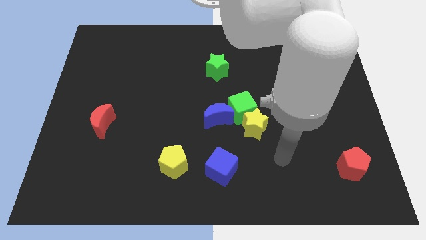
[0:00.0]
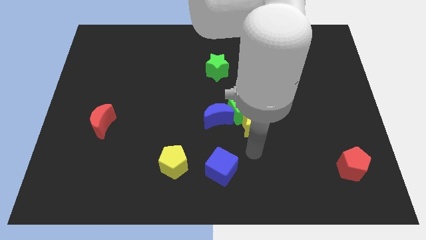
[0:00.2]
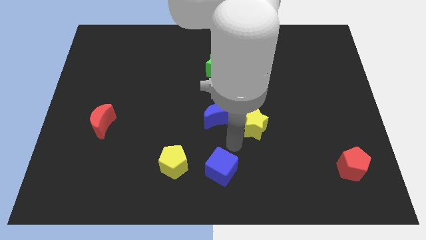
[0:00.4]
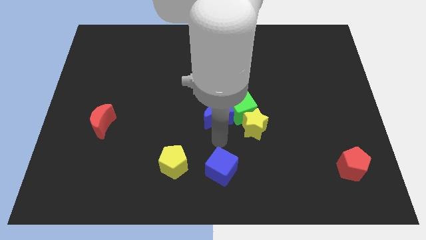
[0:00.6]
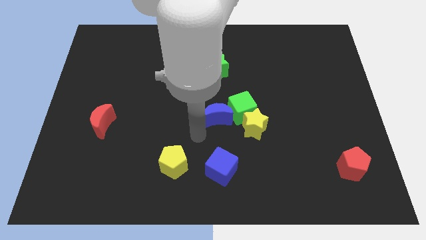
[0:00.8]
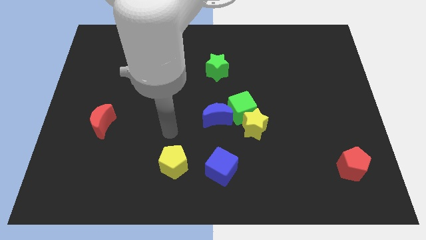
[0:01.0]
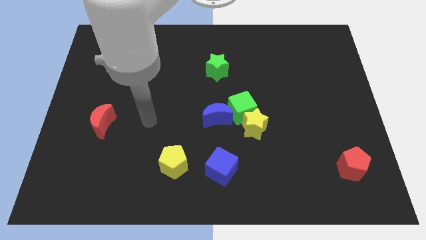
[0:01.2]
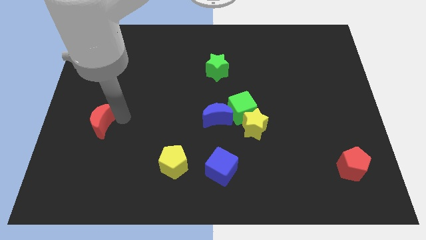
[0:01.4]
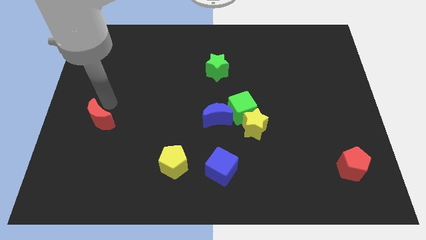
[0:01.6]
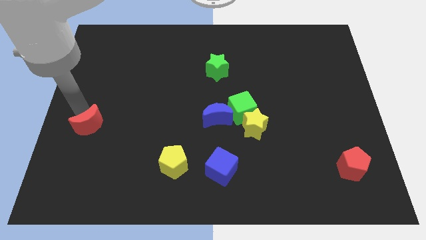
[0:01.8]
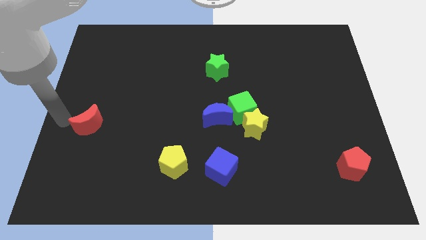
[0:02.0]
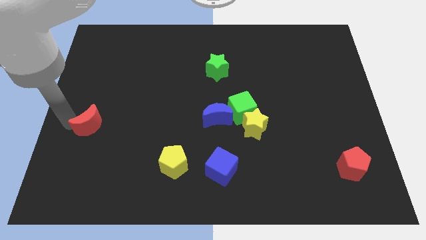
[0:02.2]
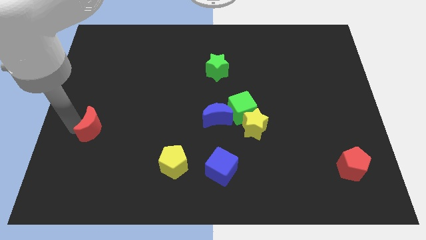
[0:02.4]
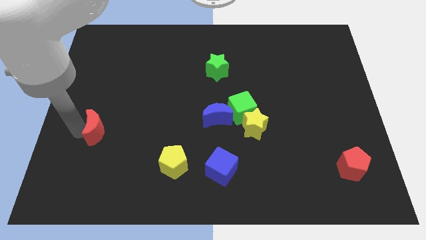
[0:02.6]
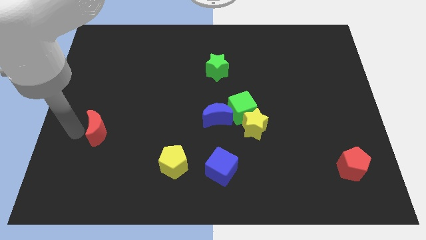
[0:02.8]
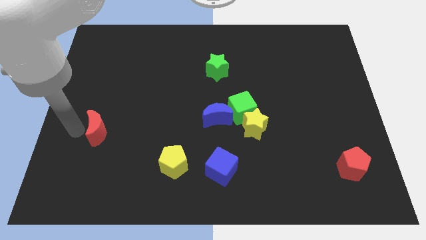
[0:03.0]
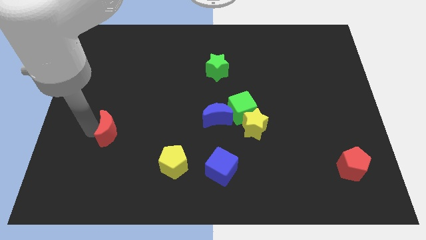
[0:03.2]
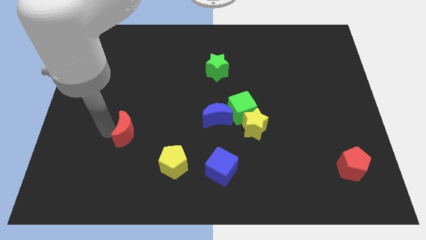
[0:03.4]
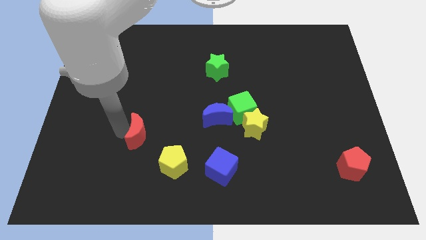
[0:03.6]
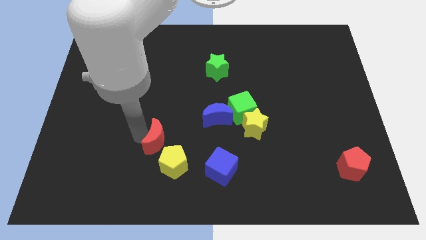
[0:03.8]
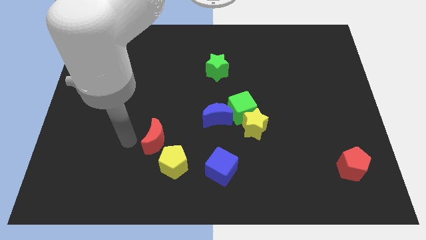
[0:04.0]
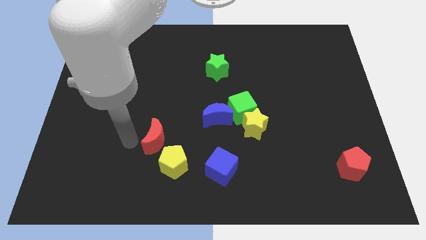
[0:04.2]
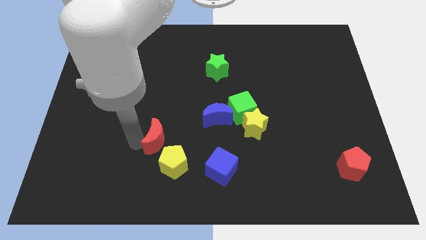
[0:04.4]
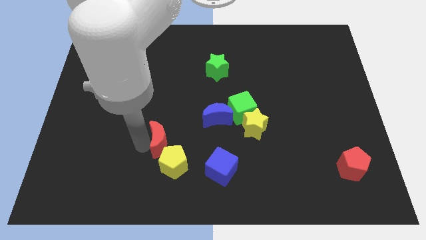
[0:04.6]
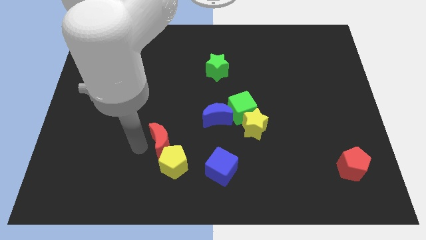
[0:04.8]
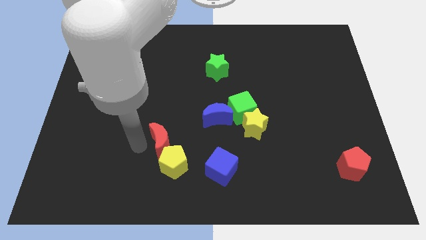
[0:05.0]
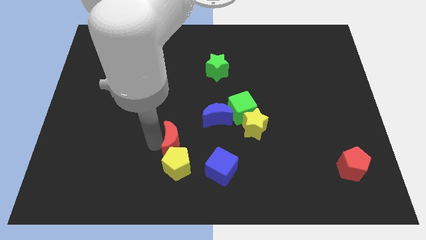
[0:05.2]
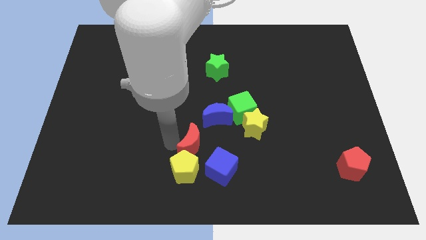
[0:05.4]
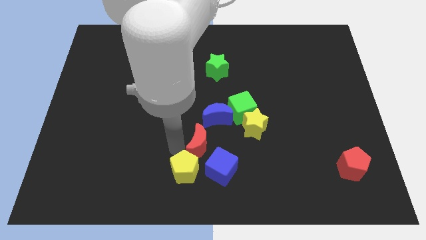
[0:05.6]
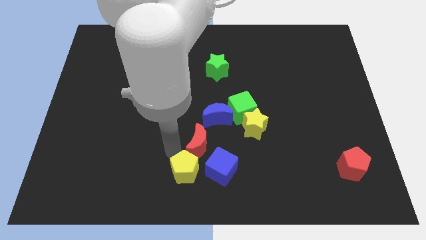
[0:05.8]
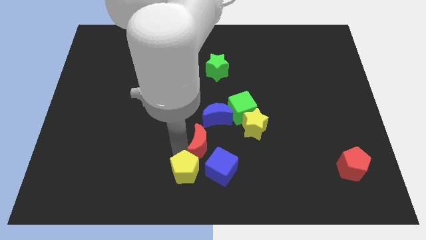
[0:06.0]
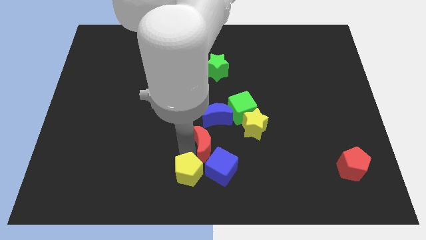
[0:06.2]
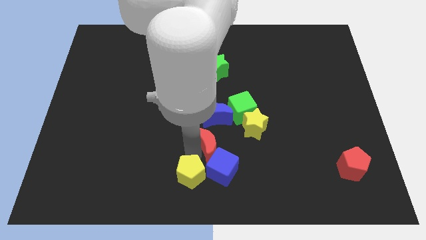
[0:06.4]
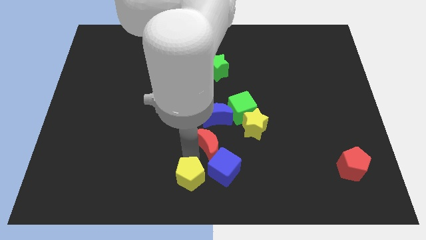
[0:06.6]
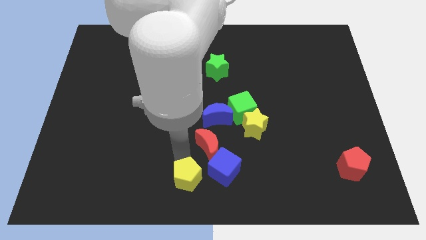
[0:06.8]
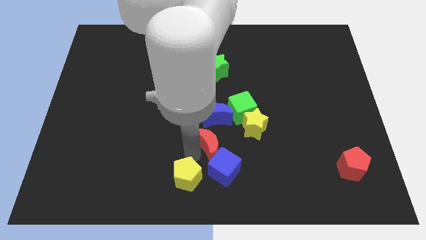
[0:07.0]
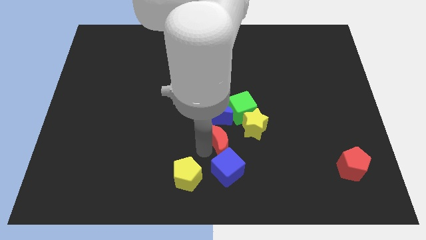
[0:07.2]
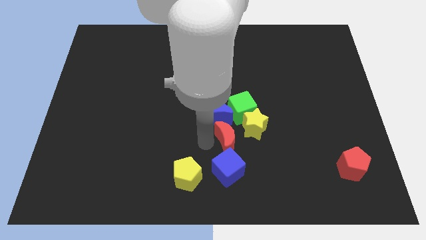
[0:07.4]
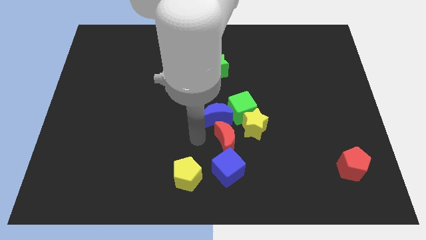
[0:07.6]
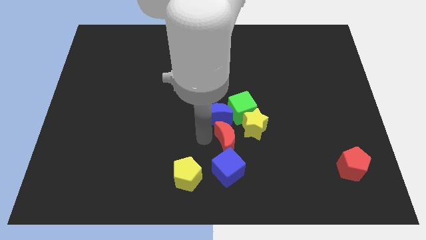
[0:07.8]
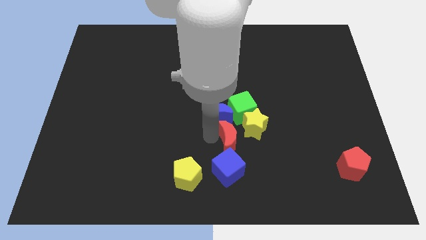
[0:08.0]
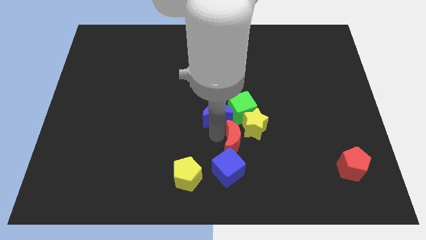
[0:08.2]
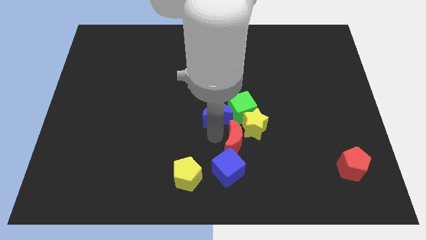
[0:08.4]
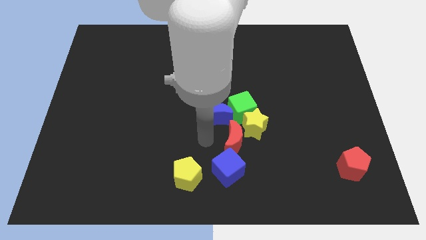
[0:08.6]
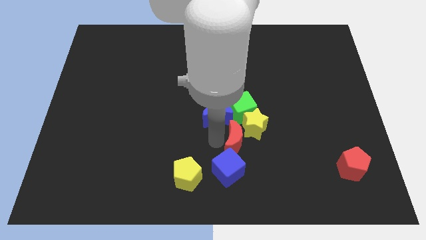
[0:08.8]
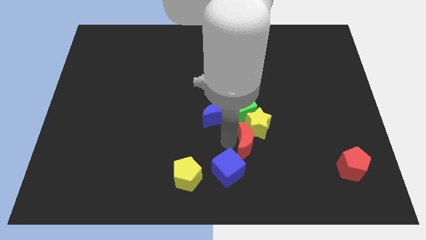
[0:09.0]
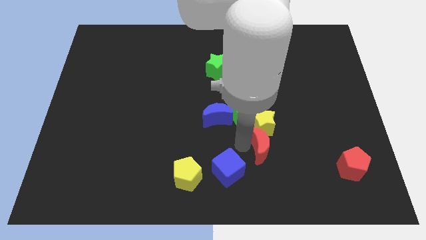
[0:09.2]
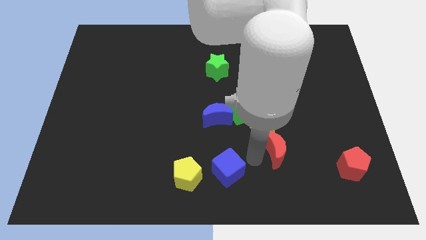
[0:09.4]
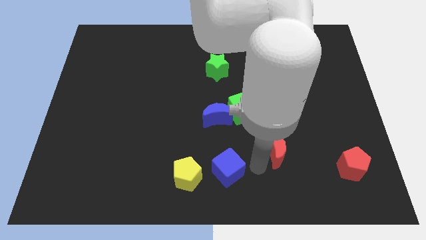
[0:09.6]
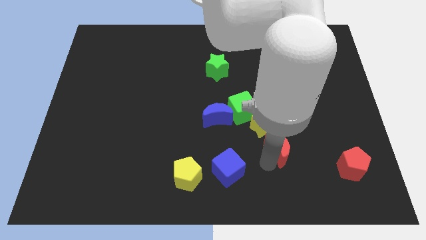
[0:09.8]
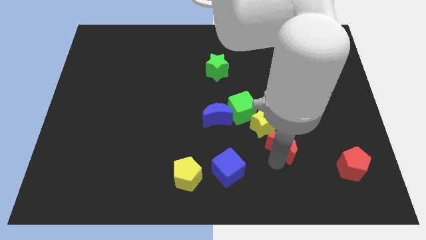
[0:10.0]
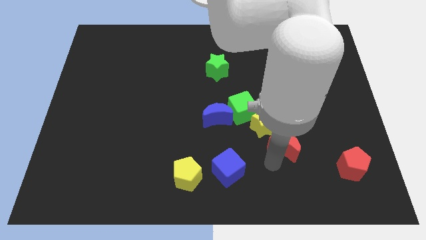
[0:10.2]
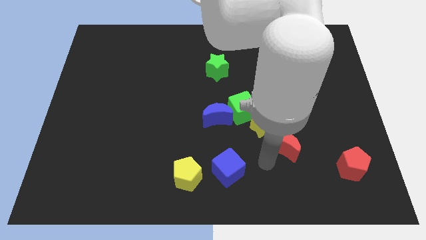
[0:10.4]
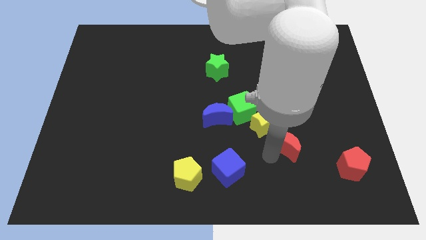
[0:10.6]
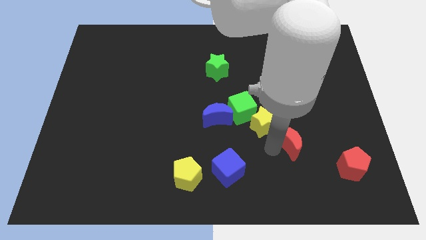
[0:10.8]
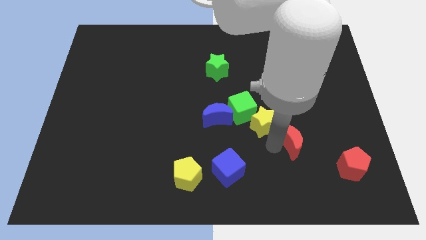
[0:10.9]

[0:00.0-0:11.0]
move the red moon right of the yellow star

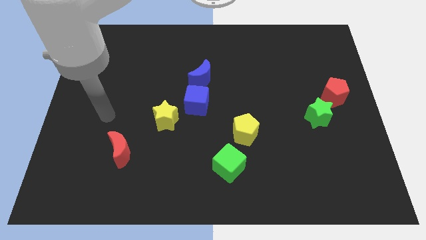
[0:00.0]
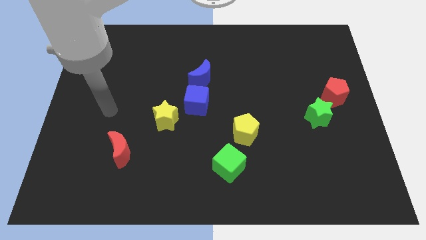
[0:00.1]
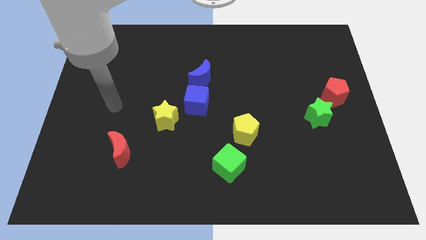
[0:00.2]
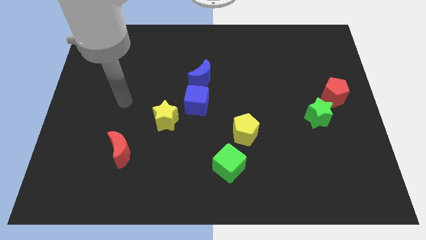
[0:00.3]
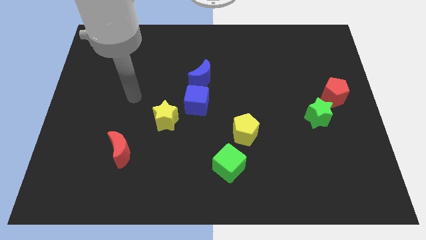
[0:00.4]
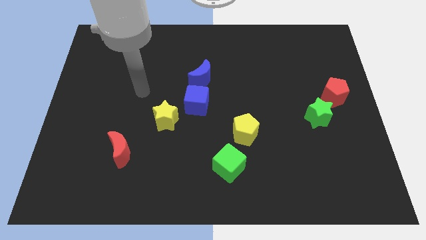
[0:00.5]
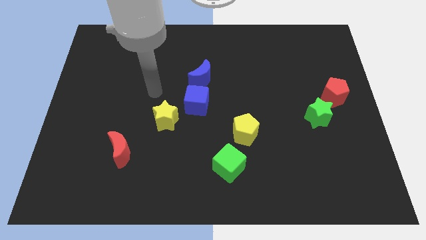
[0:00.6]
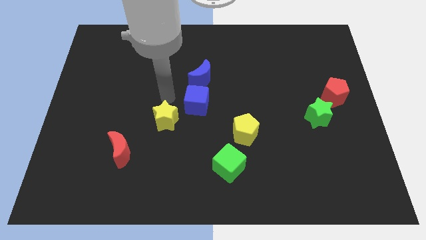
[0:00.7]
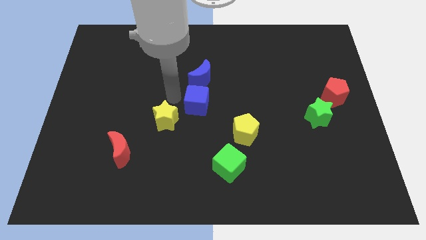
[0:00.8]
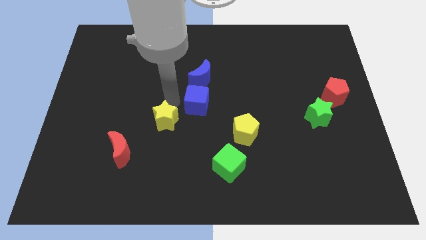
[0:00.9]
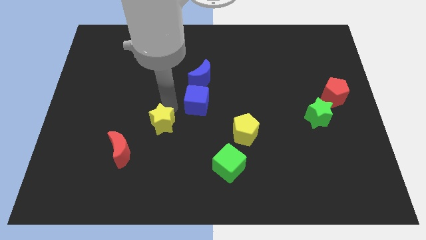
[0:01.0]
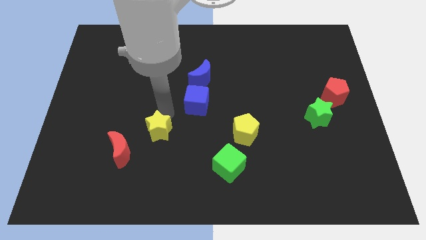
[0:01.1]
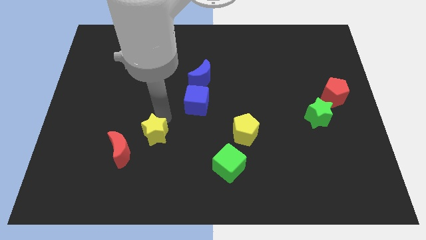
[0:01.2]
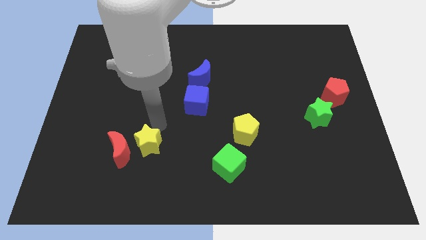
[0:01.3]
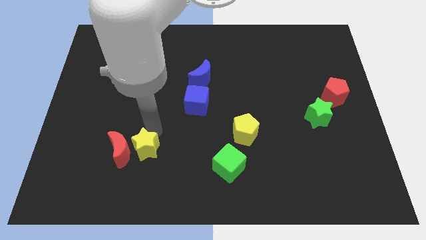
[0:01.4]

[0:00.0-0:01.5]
move the yellow star to the bottom right side of the red moon
